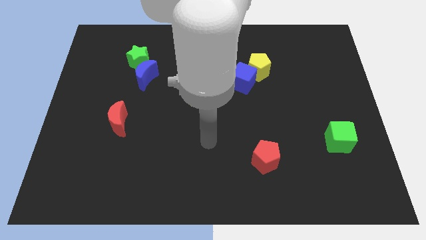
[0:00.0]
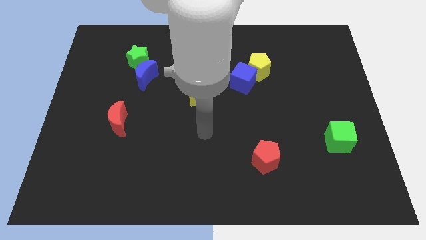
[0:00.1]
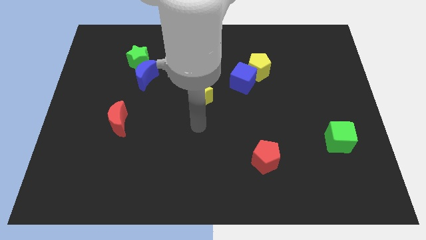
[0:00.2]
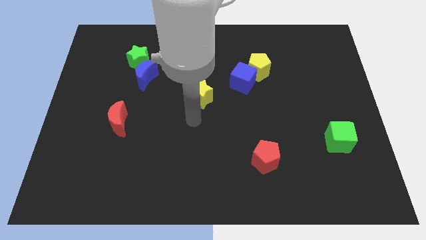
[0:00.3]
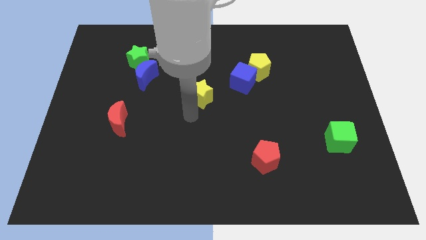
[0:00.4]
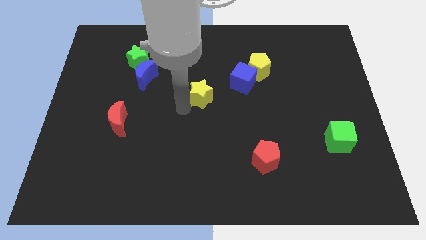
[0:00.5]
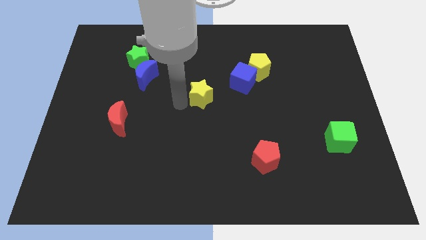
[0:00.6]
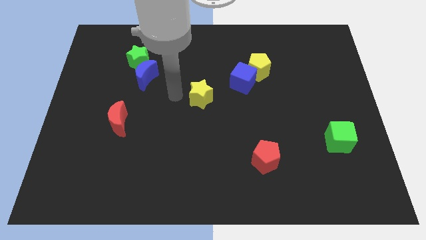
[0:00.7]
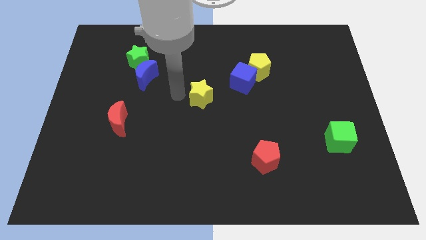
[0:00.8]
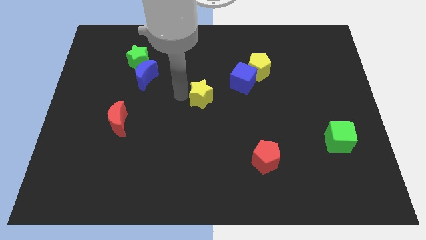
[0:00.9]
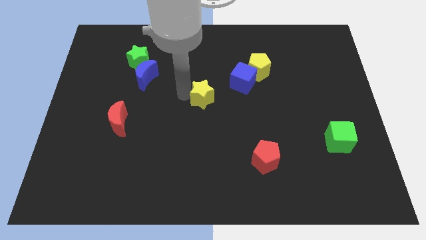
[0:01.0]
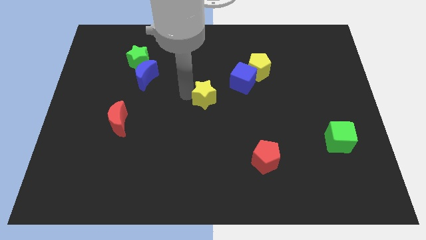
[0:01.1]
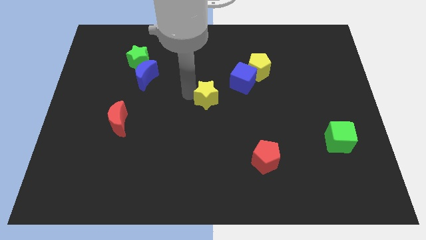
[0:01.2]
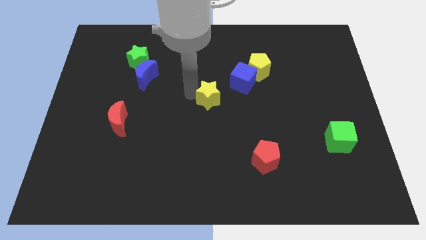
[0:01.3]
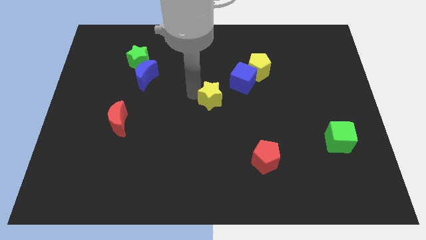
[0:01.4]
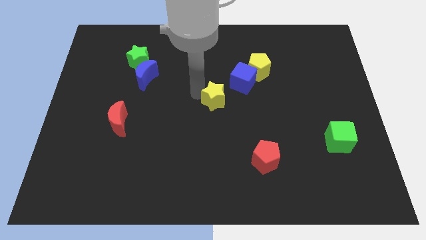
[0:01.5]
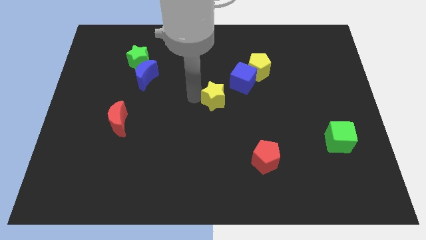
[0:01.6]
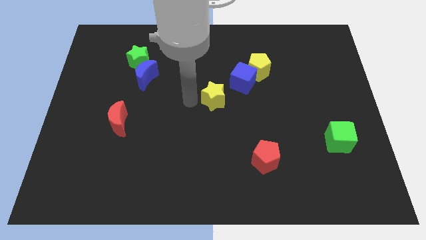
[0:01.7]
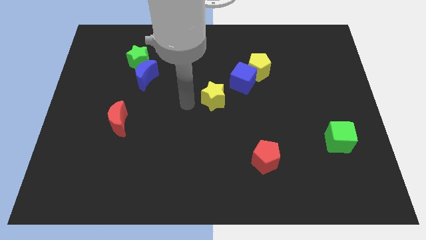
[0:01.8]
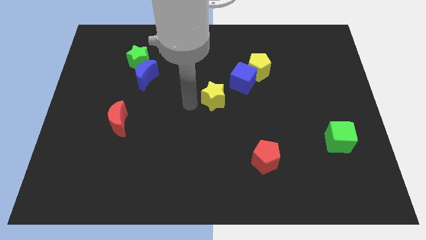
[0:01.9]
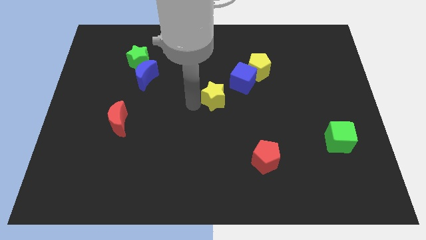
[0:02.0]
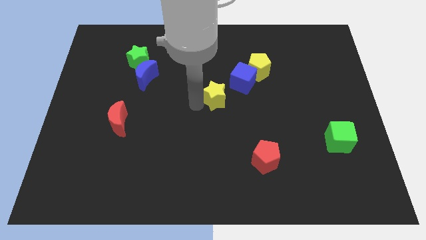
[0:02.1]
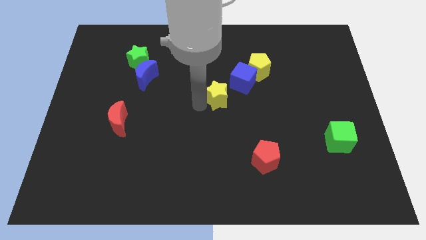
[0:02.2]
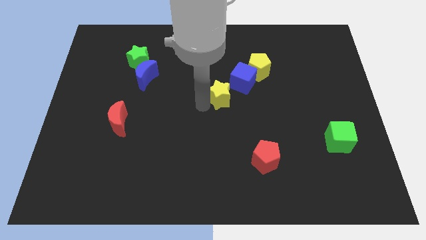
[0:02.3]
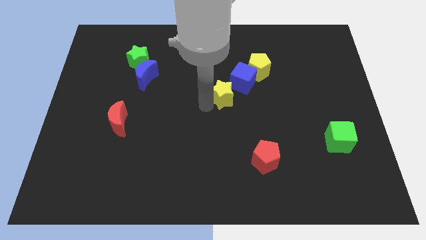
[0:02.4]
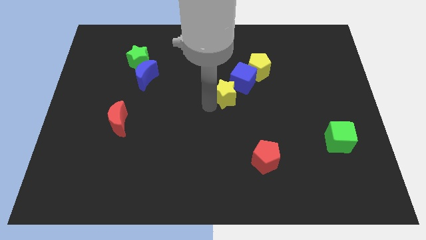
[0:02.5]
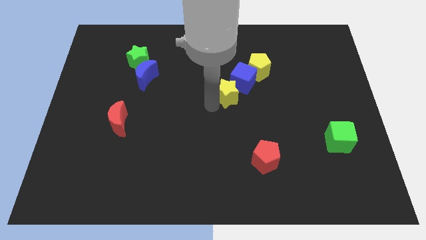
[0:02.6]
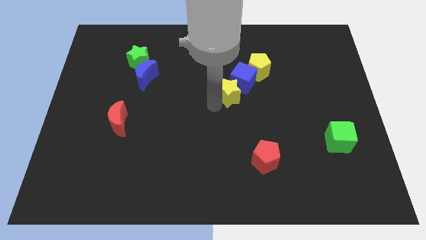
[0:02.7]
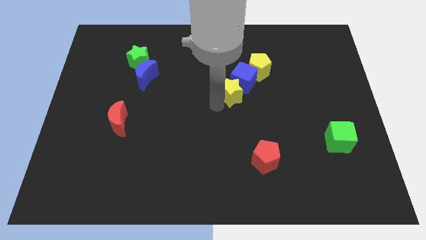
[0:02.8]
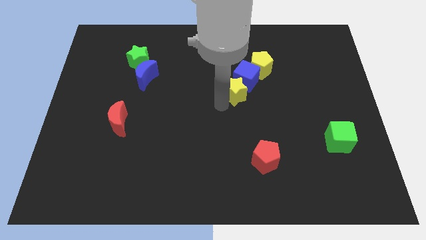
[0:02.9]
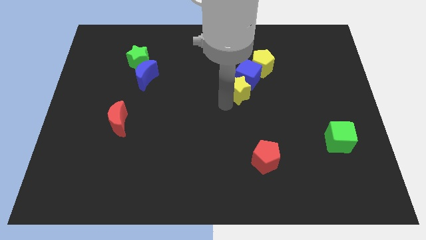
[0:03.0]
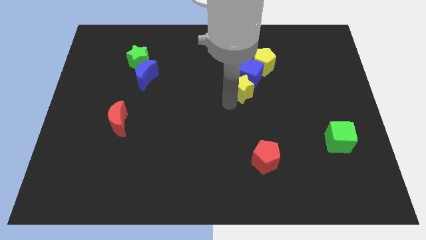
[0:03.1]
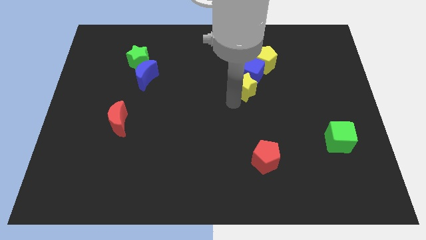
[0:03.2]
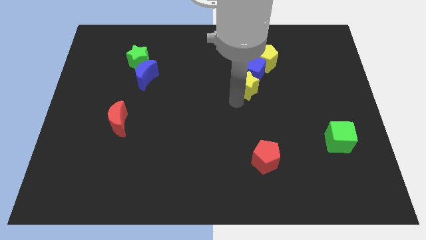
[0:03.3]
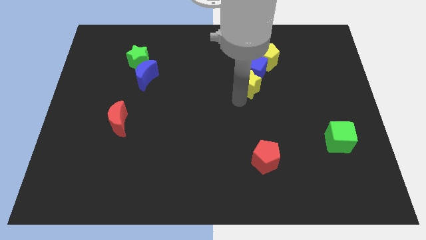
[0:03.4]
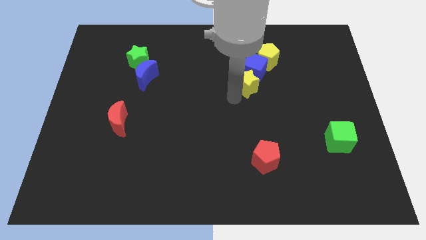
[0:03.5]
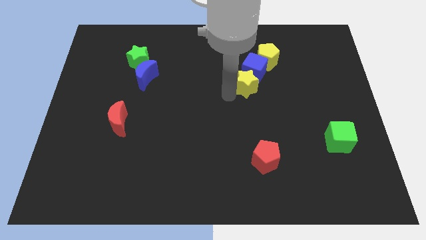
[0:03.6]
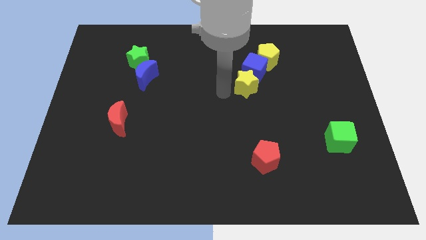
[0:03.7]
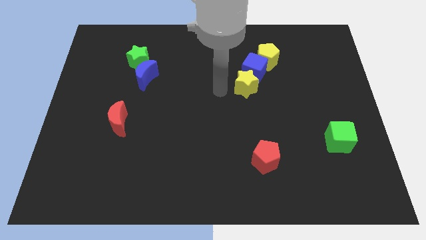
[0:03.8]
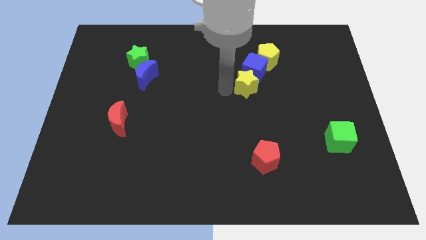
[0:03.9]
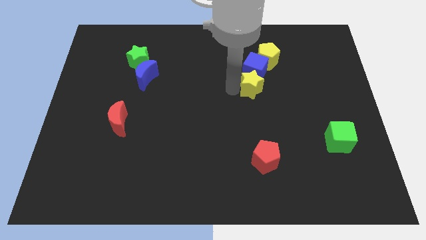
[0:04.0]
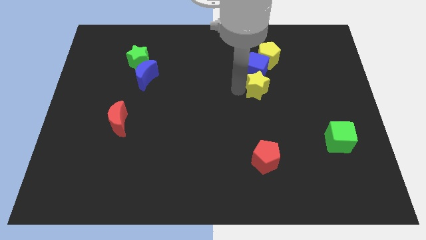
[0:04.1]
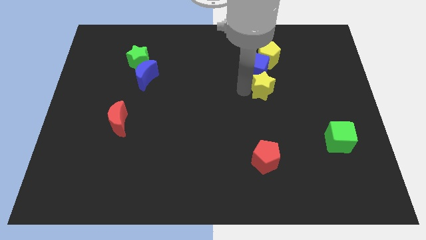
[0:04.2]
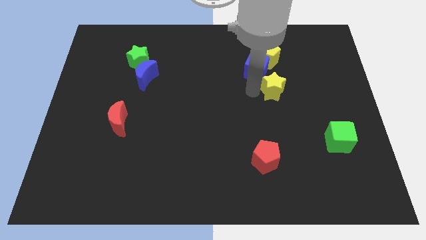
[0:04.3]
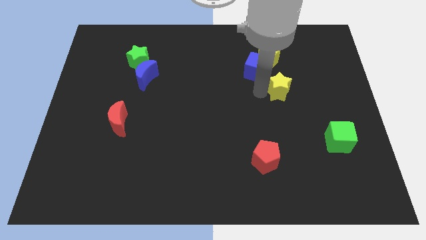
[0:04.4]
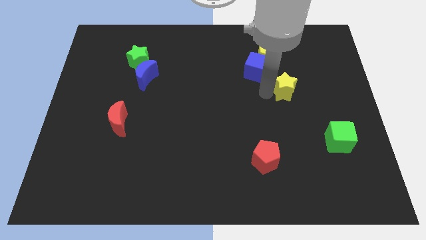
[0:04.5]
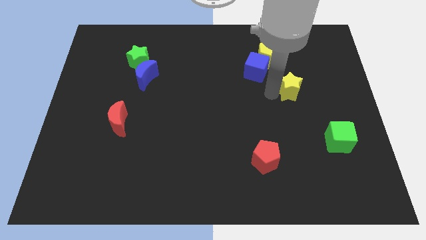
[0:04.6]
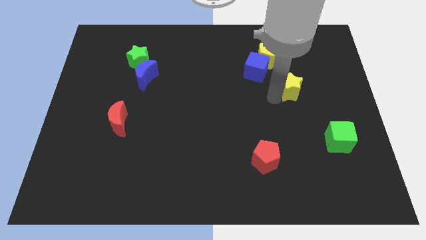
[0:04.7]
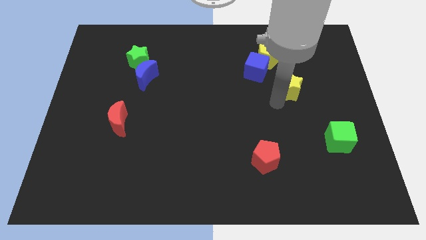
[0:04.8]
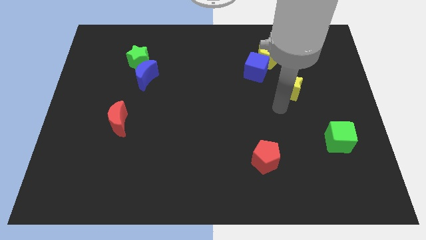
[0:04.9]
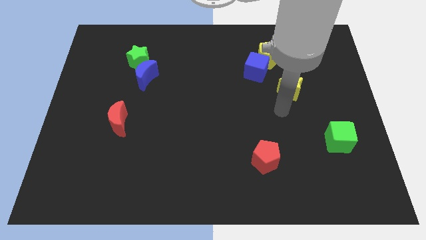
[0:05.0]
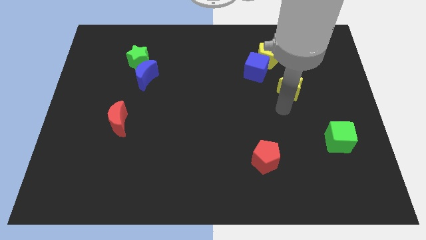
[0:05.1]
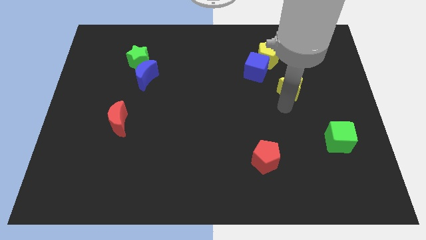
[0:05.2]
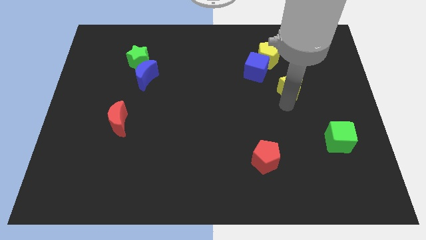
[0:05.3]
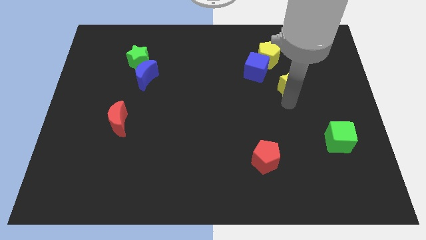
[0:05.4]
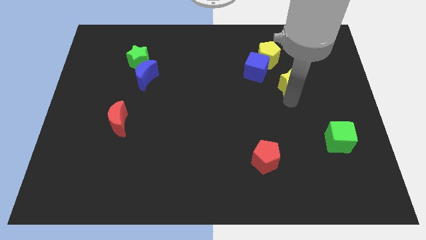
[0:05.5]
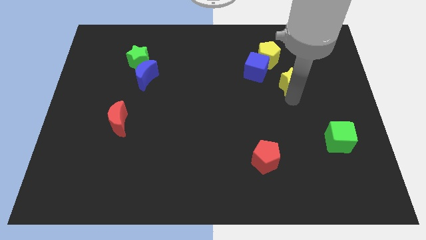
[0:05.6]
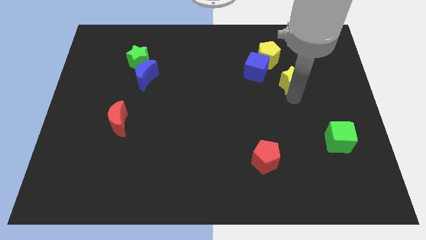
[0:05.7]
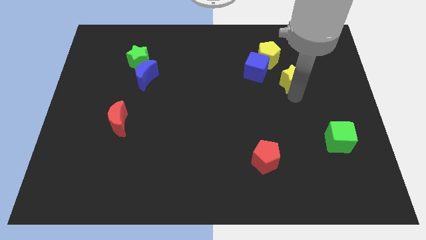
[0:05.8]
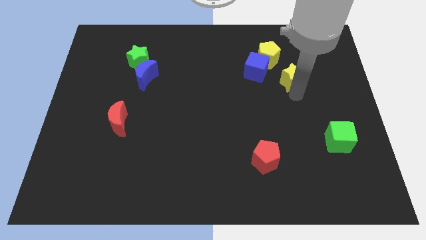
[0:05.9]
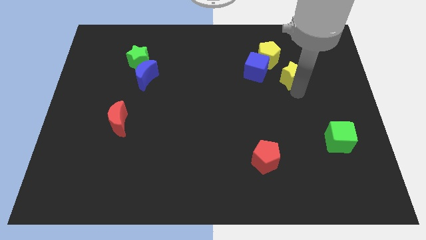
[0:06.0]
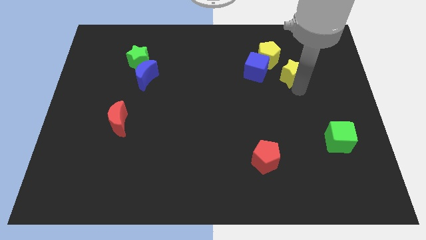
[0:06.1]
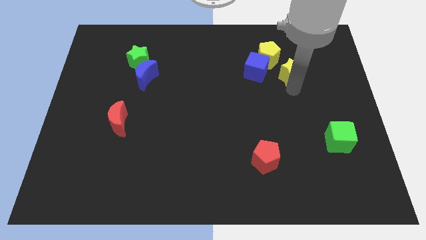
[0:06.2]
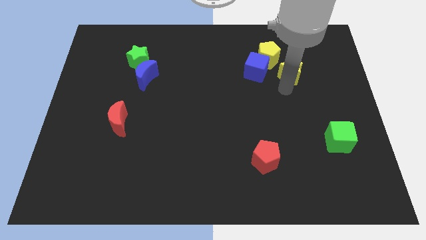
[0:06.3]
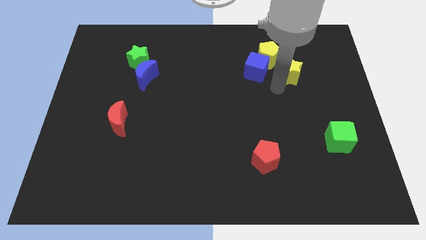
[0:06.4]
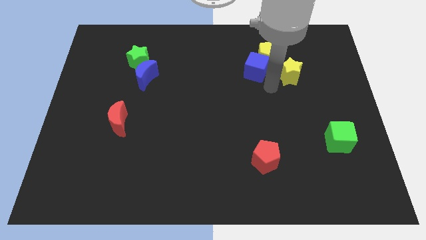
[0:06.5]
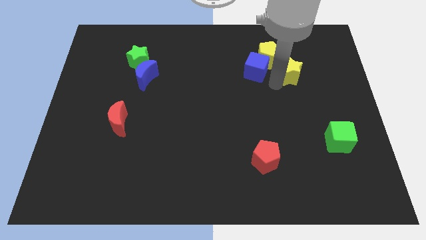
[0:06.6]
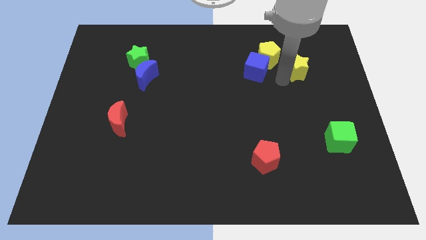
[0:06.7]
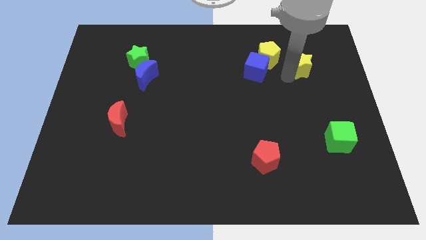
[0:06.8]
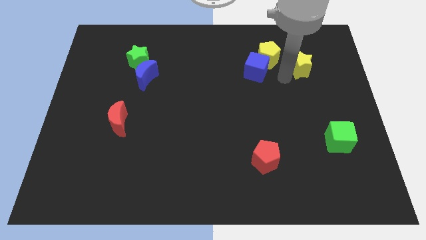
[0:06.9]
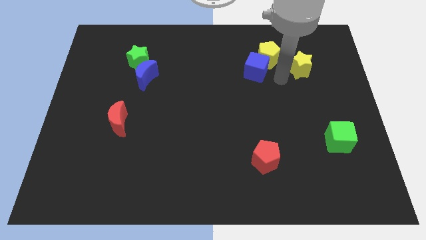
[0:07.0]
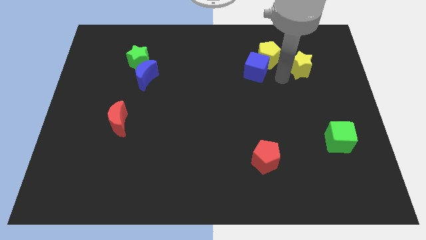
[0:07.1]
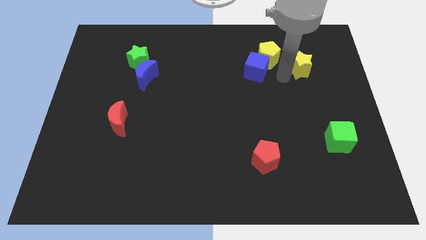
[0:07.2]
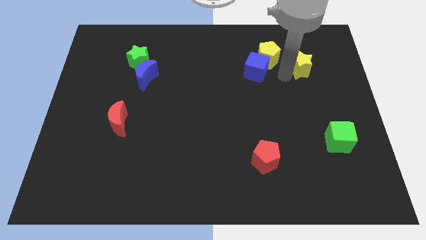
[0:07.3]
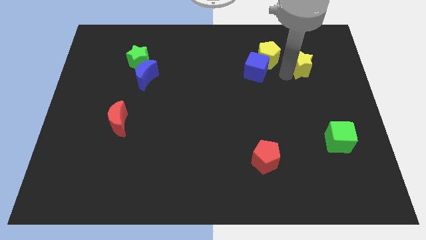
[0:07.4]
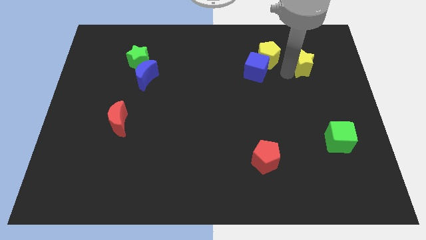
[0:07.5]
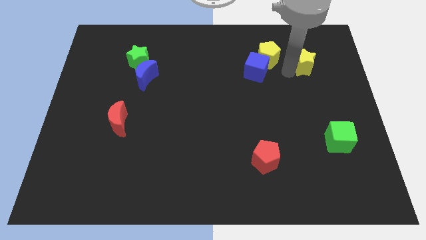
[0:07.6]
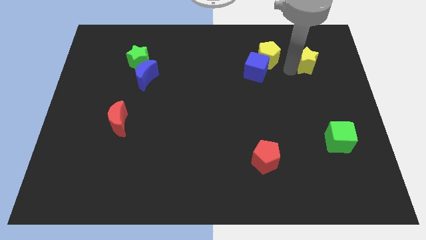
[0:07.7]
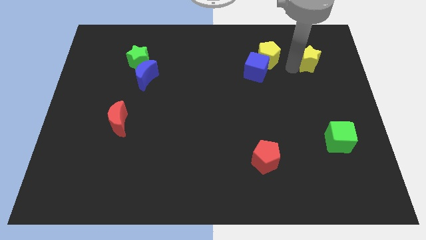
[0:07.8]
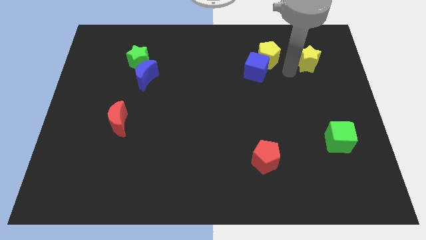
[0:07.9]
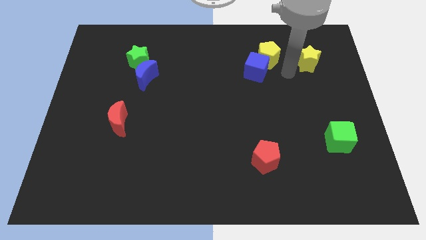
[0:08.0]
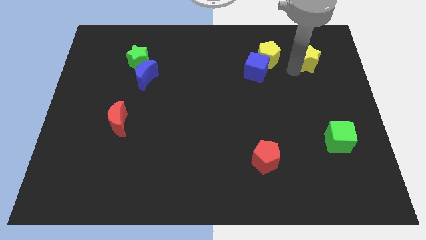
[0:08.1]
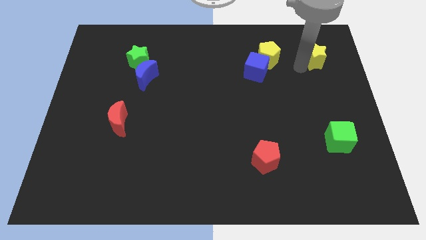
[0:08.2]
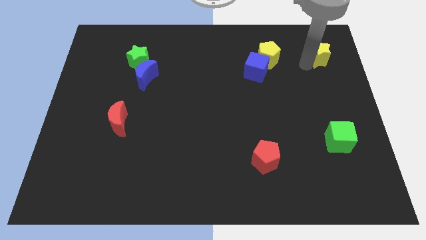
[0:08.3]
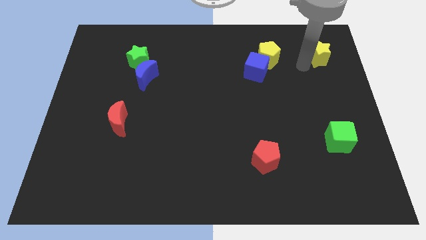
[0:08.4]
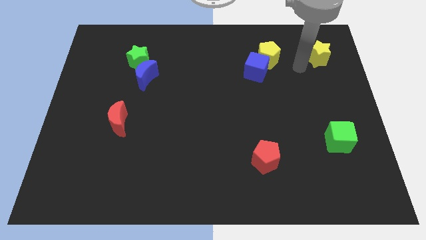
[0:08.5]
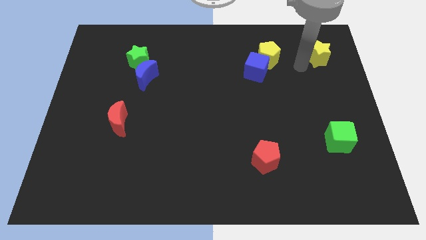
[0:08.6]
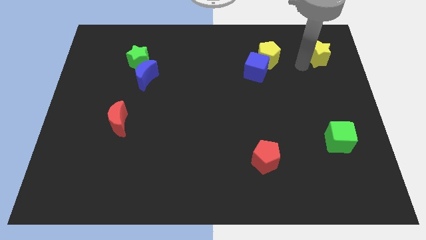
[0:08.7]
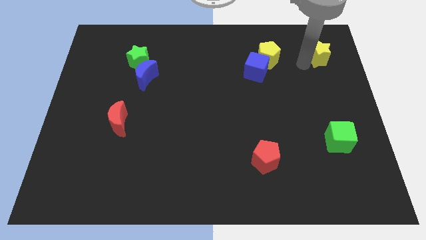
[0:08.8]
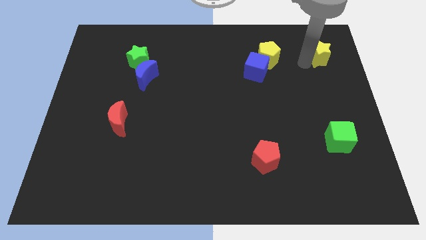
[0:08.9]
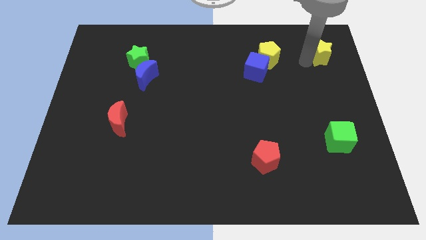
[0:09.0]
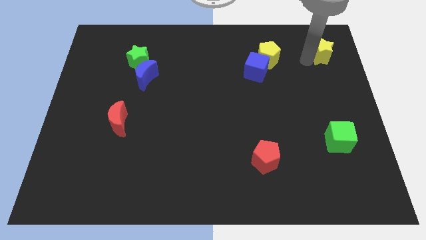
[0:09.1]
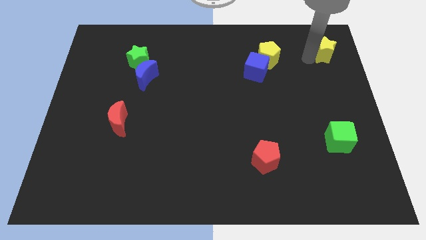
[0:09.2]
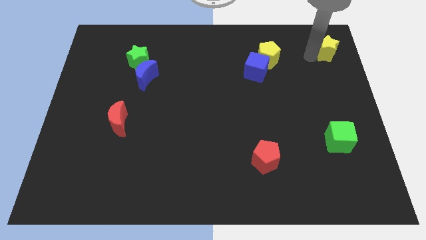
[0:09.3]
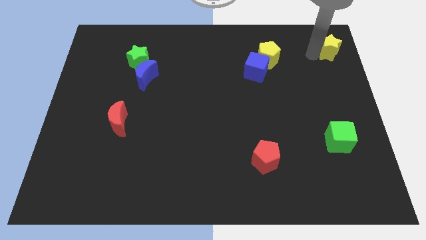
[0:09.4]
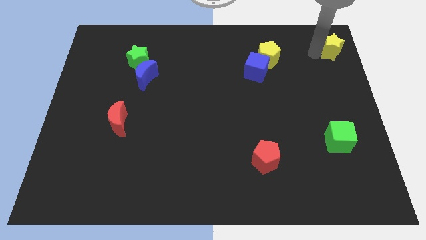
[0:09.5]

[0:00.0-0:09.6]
put the yellow star to the top right corner
